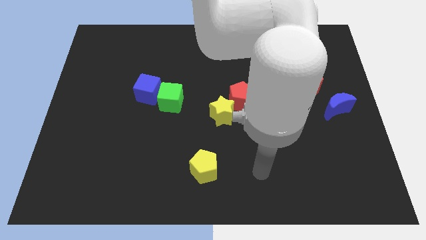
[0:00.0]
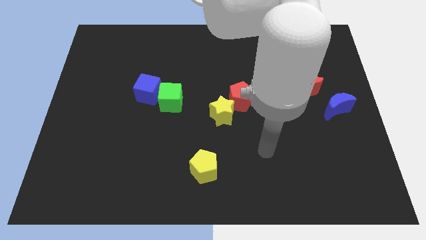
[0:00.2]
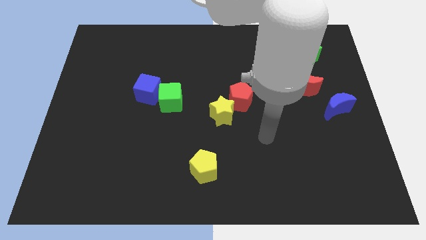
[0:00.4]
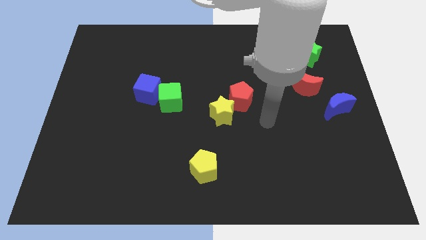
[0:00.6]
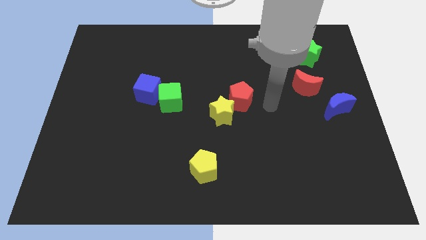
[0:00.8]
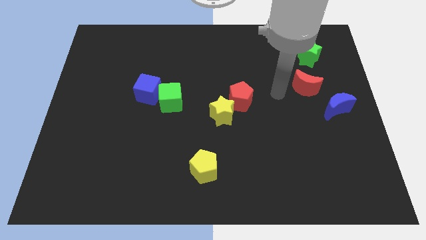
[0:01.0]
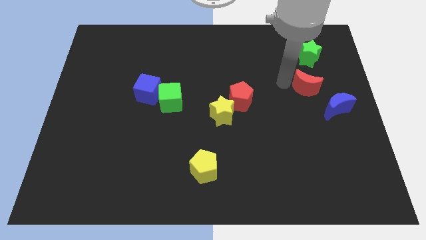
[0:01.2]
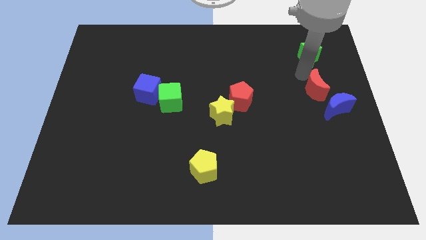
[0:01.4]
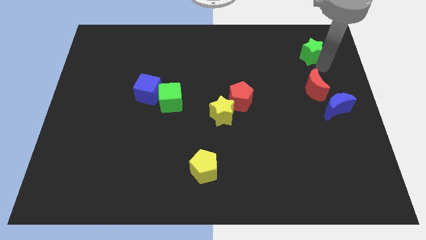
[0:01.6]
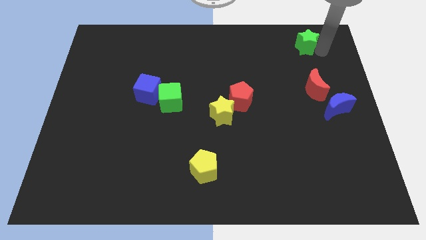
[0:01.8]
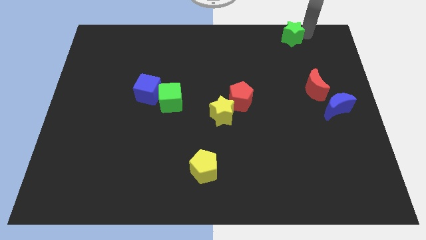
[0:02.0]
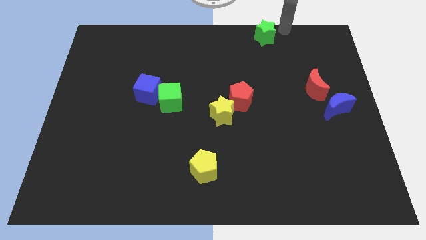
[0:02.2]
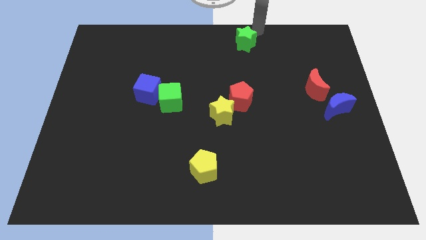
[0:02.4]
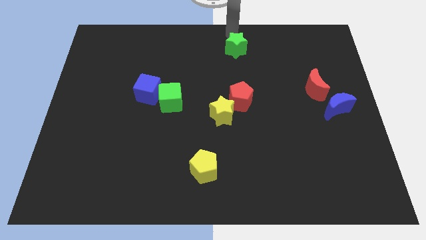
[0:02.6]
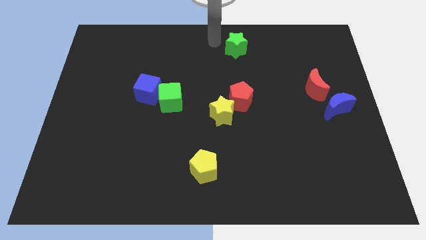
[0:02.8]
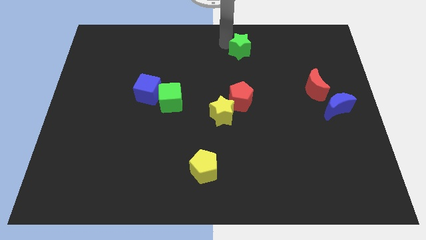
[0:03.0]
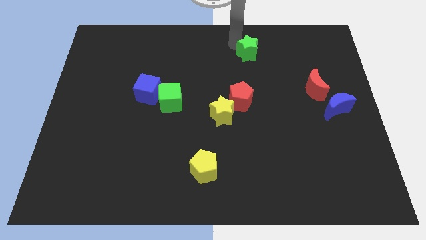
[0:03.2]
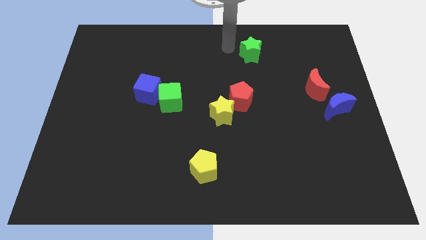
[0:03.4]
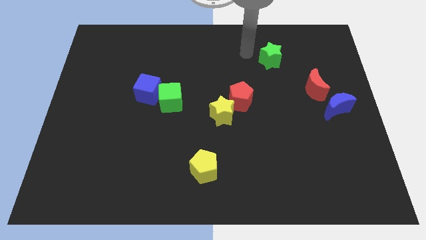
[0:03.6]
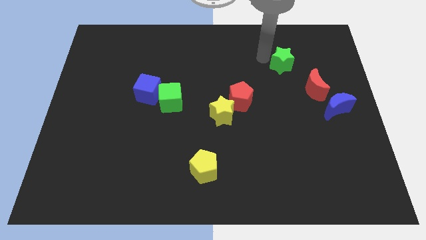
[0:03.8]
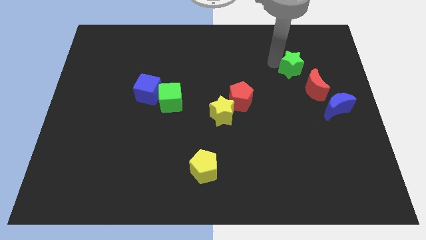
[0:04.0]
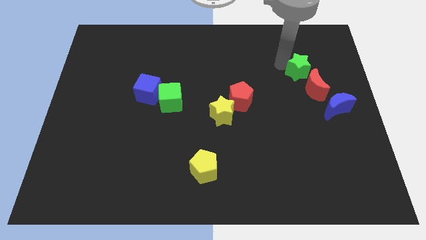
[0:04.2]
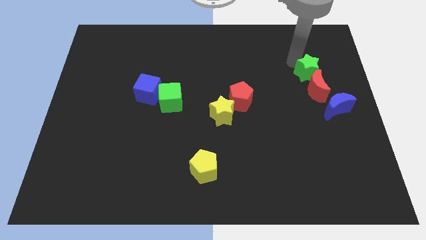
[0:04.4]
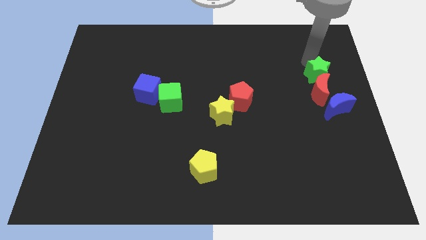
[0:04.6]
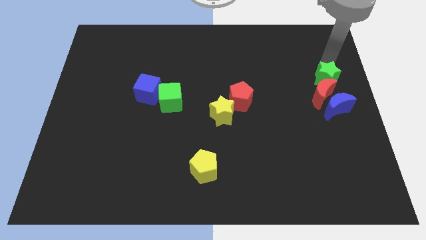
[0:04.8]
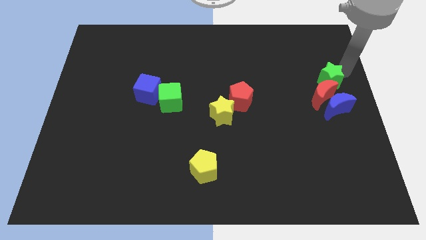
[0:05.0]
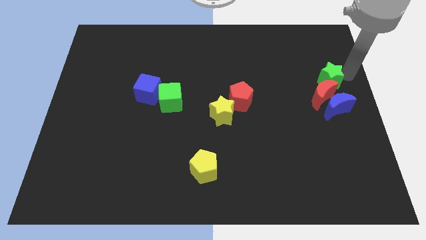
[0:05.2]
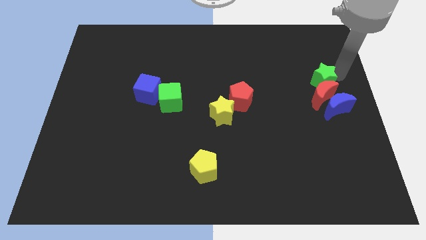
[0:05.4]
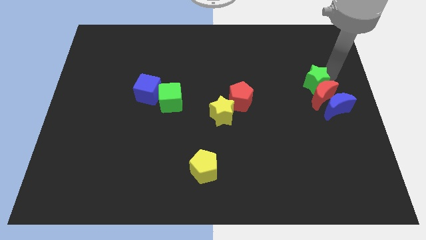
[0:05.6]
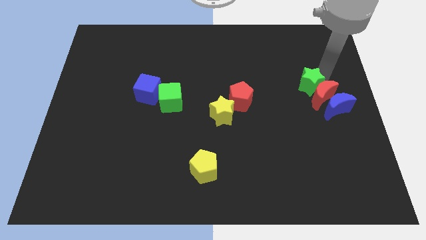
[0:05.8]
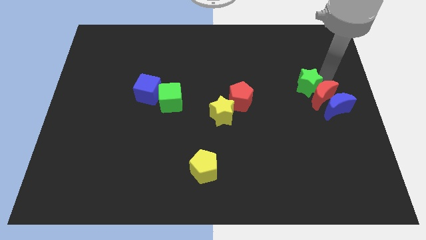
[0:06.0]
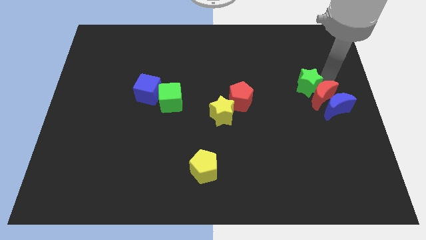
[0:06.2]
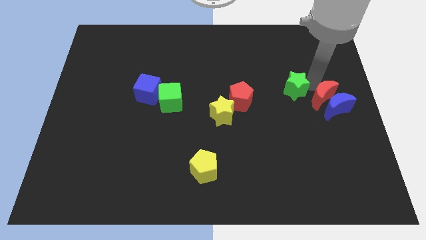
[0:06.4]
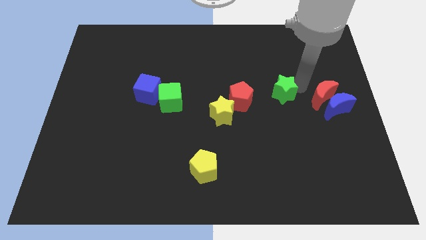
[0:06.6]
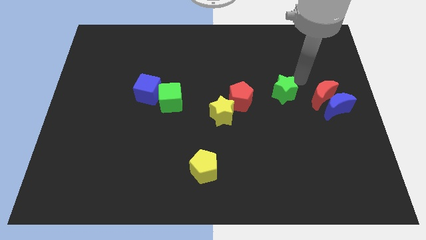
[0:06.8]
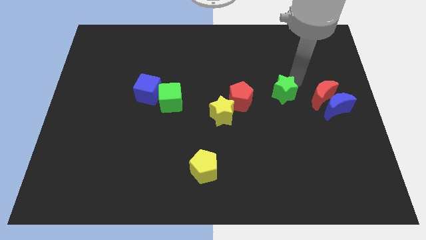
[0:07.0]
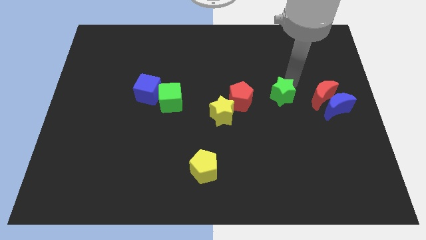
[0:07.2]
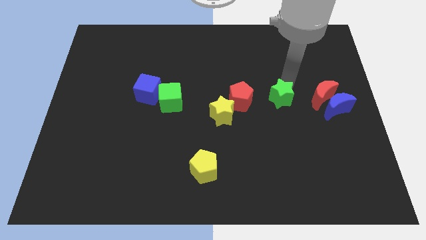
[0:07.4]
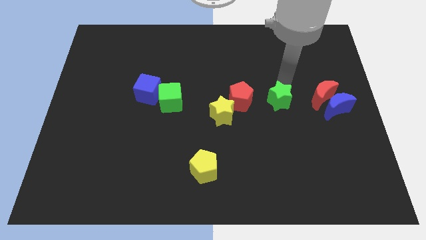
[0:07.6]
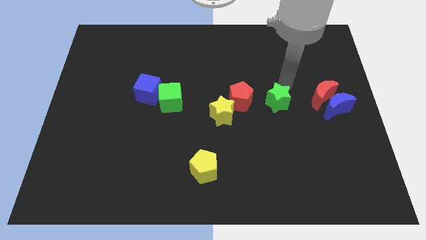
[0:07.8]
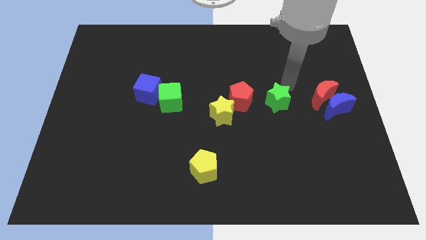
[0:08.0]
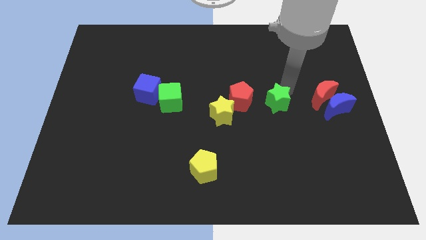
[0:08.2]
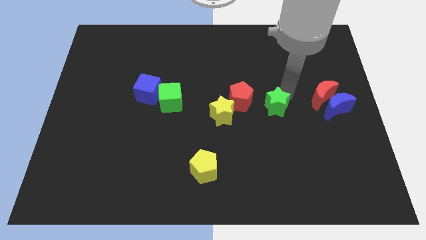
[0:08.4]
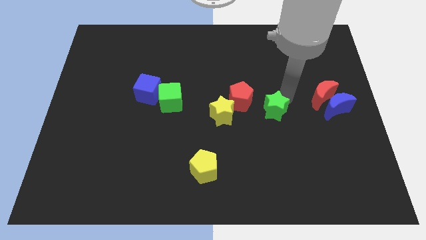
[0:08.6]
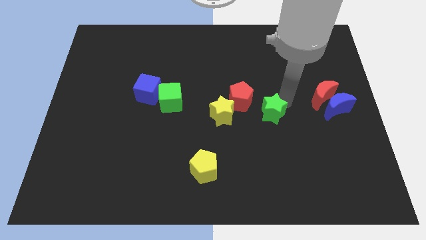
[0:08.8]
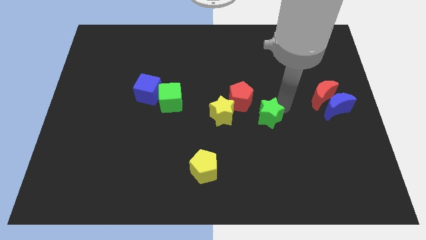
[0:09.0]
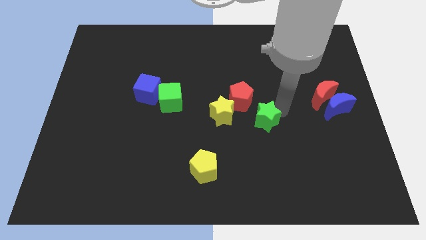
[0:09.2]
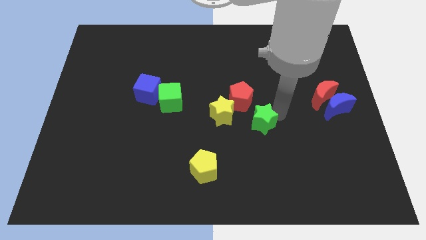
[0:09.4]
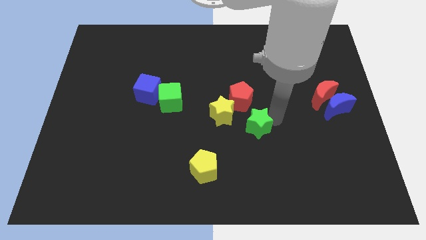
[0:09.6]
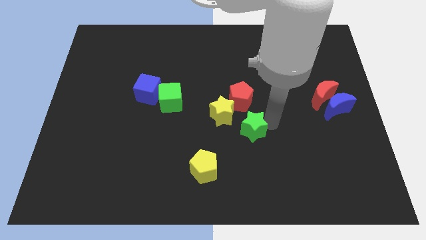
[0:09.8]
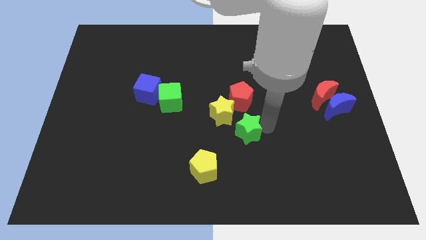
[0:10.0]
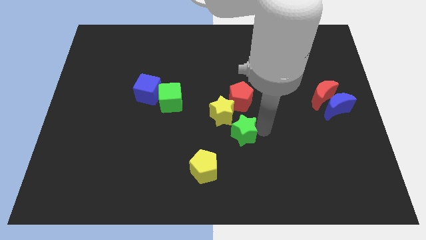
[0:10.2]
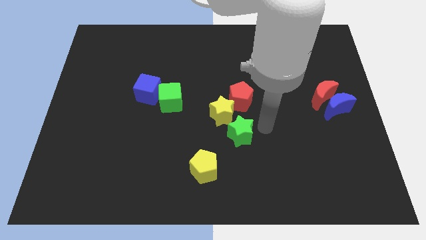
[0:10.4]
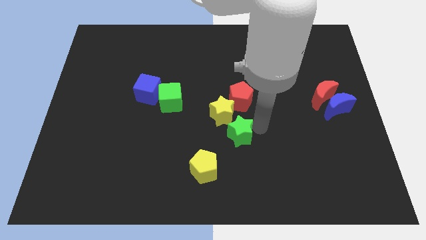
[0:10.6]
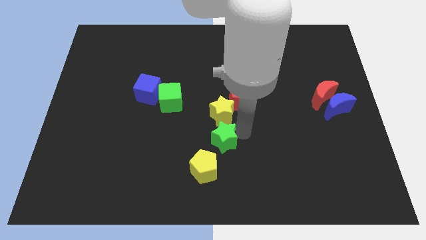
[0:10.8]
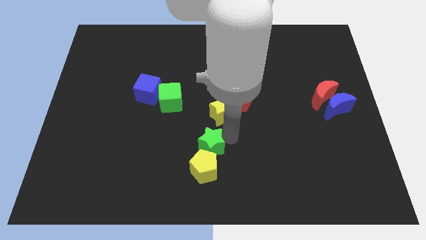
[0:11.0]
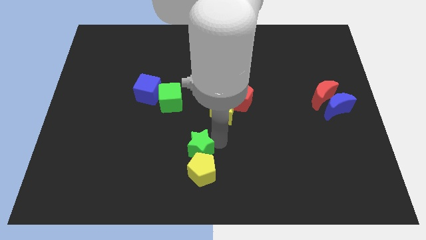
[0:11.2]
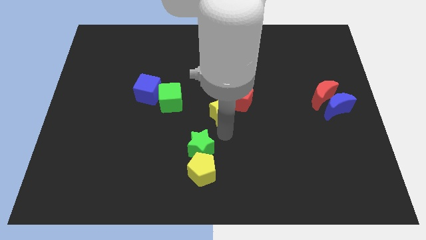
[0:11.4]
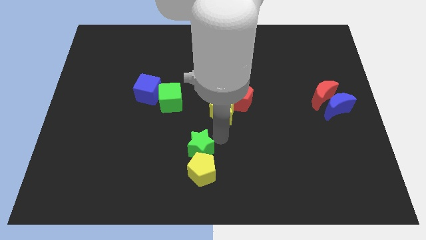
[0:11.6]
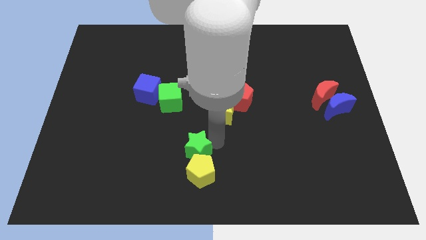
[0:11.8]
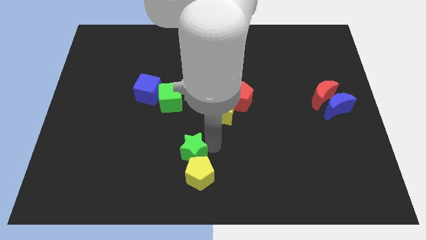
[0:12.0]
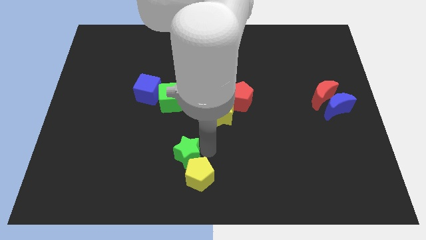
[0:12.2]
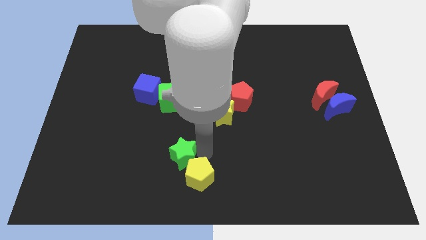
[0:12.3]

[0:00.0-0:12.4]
push the green star to the left of the yellow pentagon
